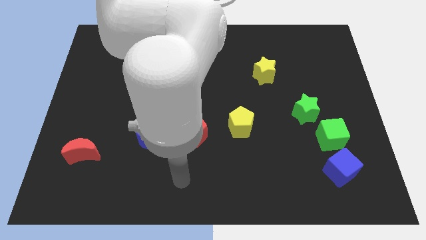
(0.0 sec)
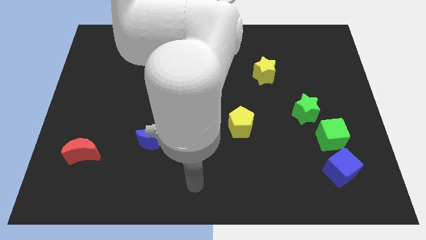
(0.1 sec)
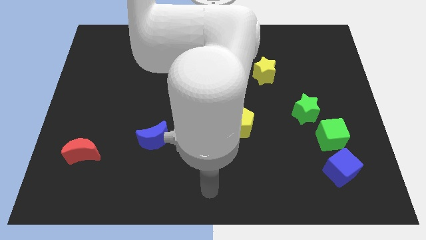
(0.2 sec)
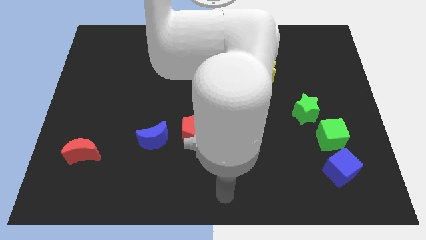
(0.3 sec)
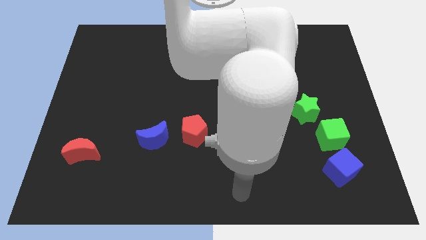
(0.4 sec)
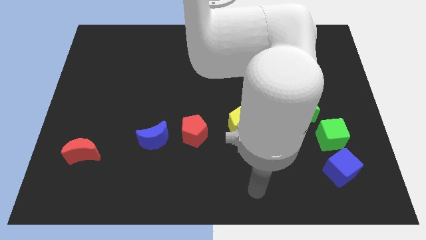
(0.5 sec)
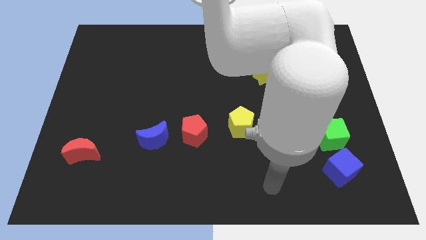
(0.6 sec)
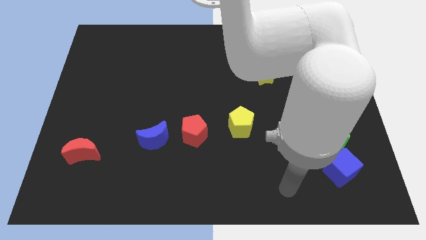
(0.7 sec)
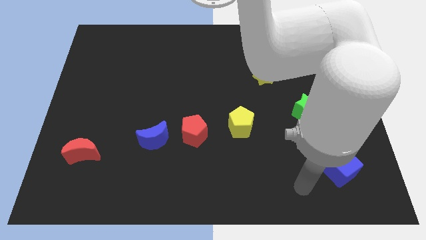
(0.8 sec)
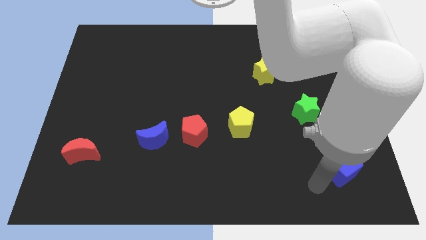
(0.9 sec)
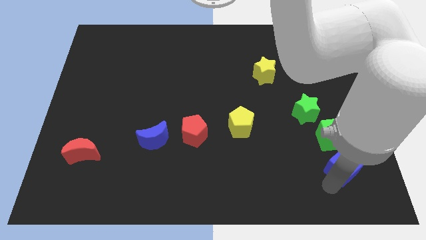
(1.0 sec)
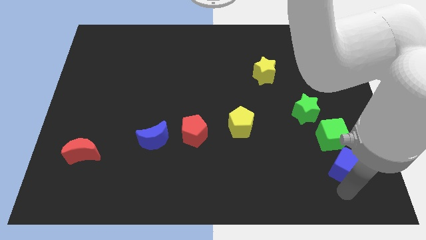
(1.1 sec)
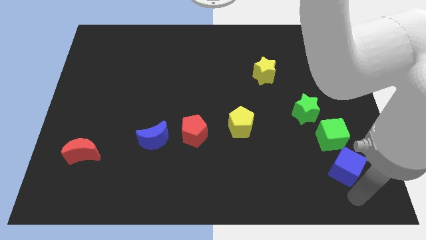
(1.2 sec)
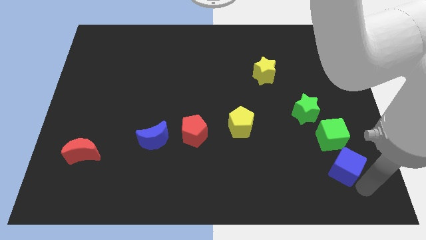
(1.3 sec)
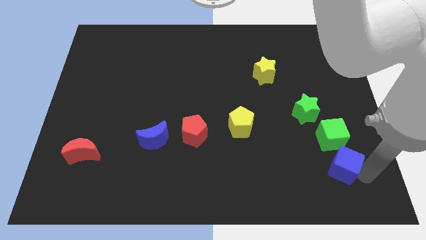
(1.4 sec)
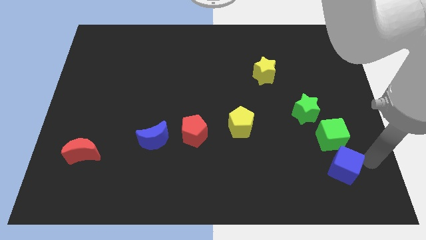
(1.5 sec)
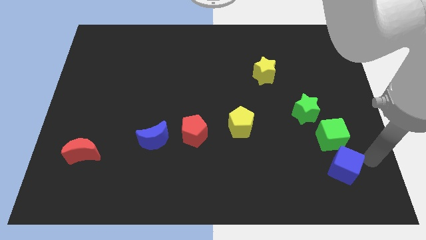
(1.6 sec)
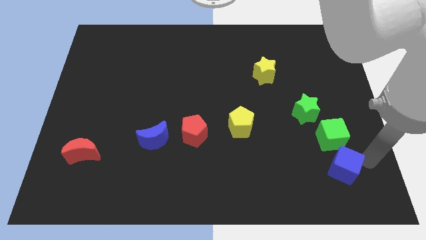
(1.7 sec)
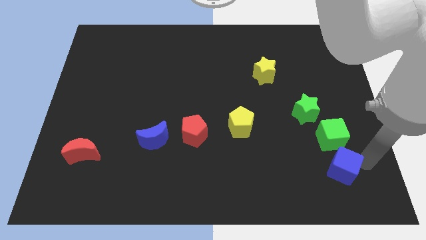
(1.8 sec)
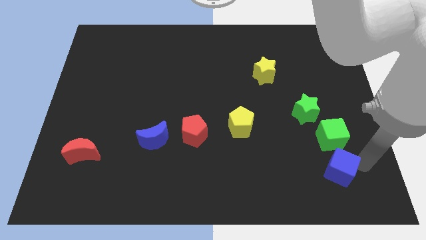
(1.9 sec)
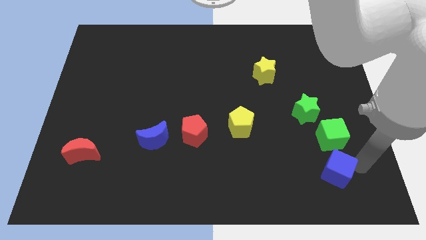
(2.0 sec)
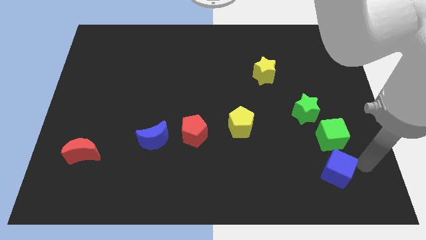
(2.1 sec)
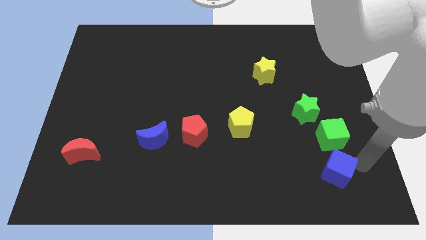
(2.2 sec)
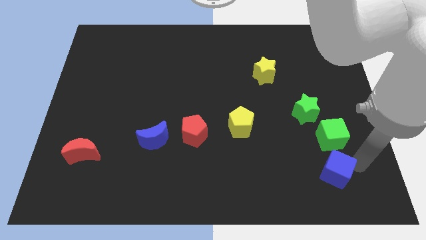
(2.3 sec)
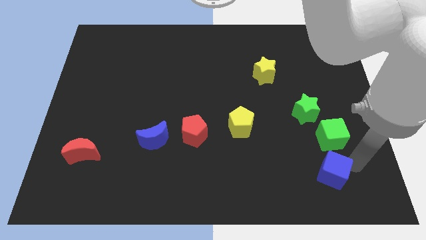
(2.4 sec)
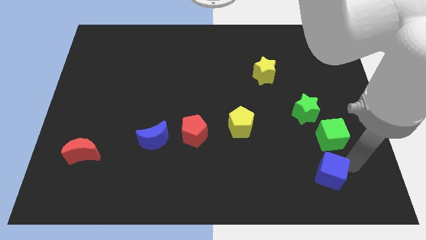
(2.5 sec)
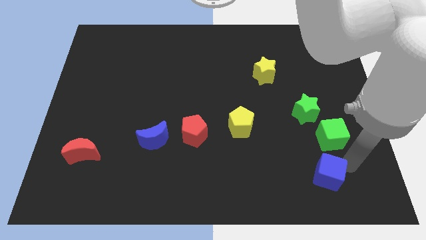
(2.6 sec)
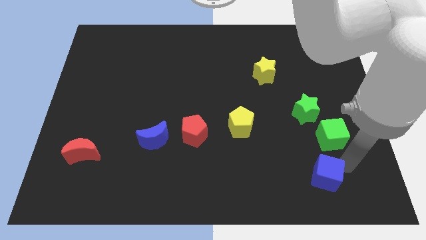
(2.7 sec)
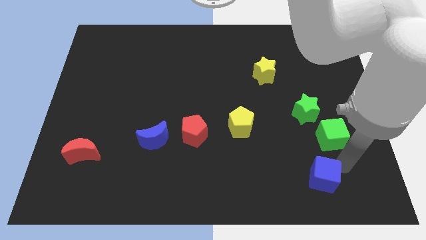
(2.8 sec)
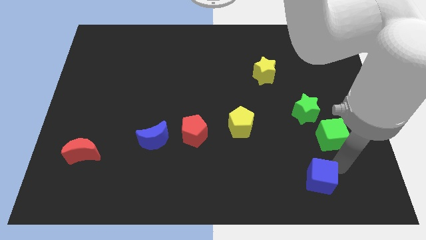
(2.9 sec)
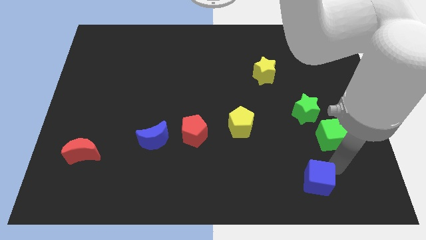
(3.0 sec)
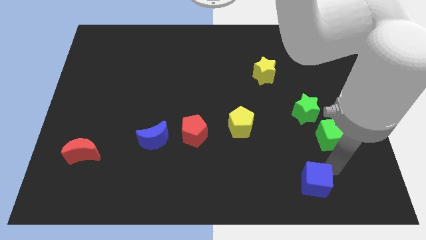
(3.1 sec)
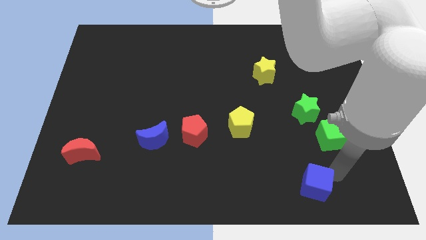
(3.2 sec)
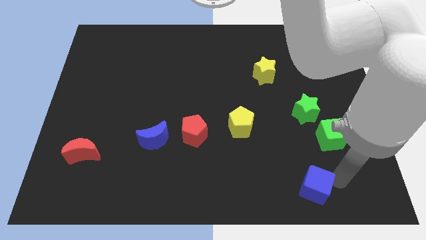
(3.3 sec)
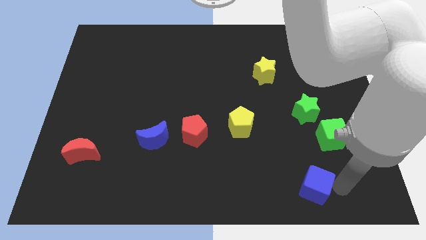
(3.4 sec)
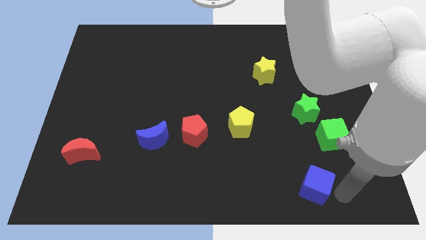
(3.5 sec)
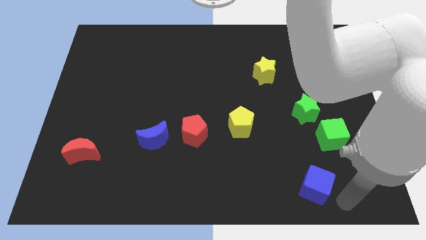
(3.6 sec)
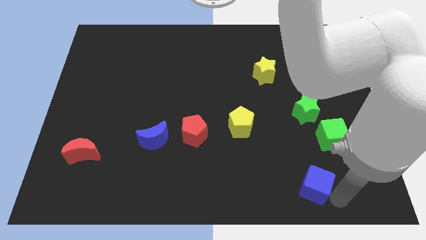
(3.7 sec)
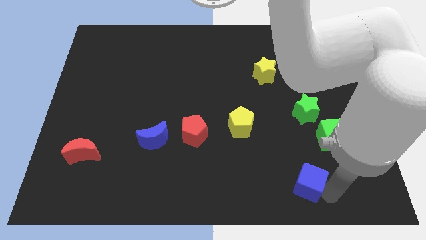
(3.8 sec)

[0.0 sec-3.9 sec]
slightly move the blue cube to the left

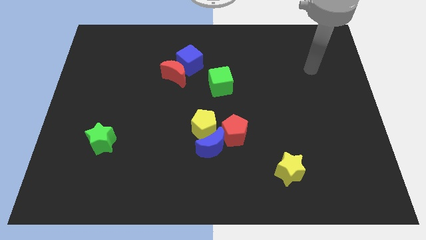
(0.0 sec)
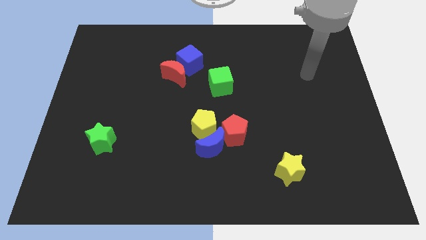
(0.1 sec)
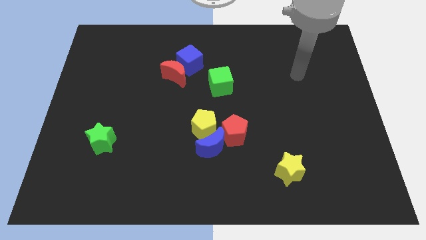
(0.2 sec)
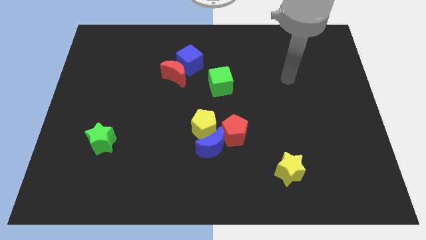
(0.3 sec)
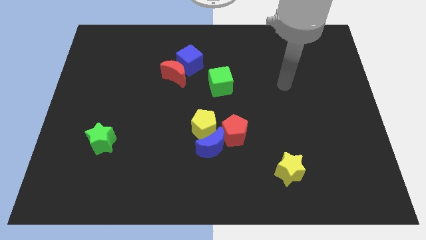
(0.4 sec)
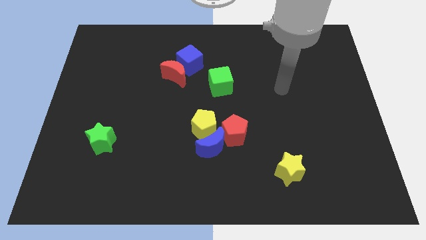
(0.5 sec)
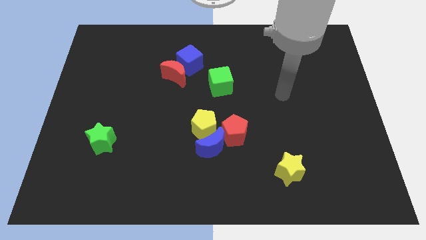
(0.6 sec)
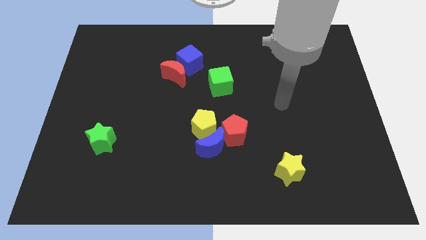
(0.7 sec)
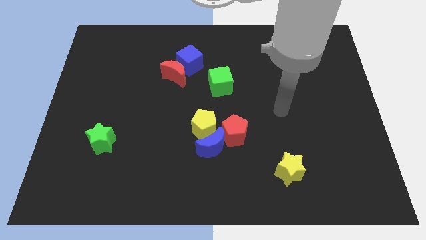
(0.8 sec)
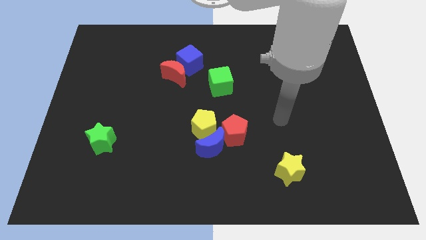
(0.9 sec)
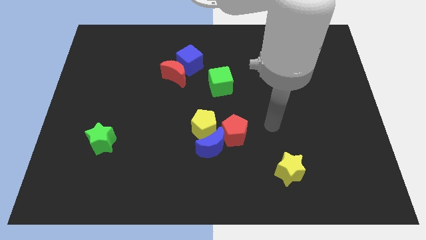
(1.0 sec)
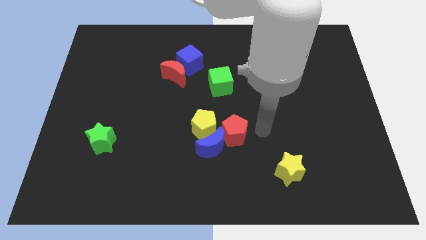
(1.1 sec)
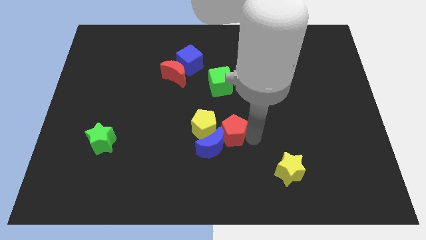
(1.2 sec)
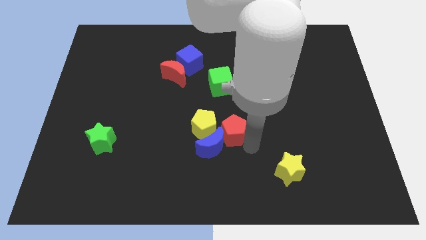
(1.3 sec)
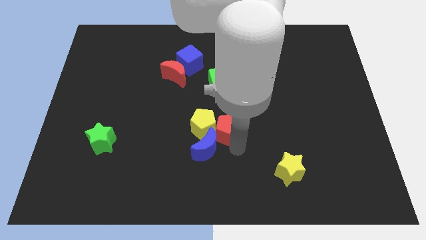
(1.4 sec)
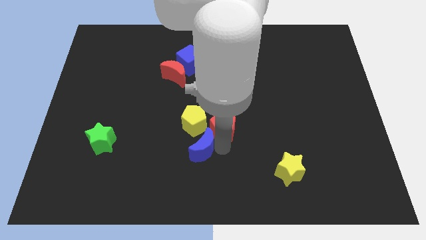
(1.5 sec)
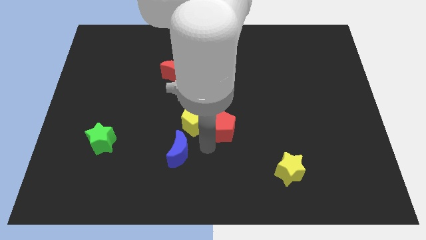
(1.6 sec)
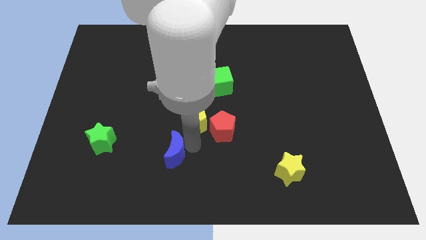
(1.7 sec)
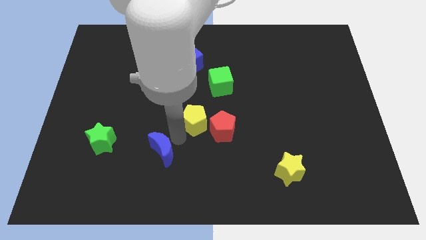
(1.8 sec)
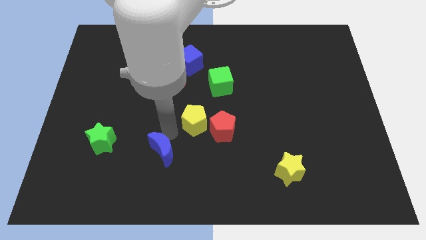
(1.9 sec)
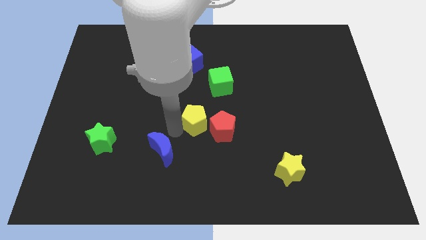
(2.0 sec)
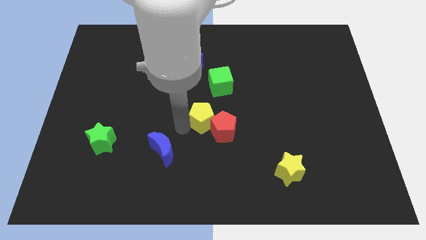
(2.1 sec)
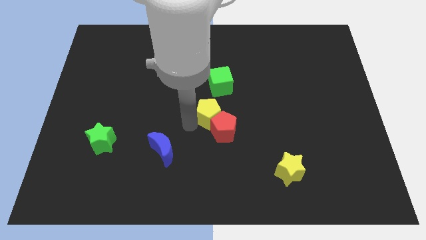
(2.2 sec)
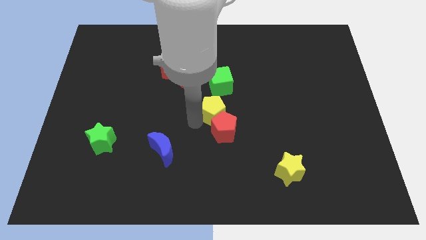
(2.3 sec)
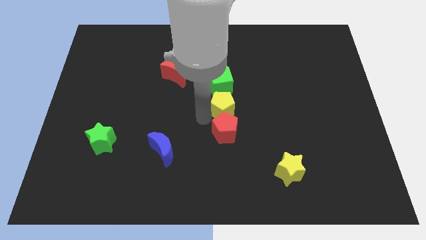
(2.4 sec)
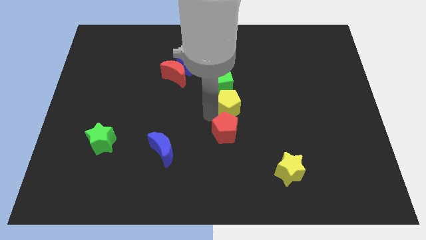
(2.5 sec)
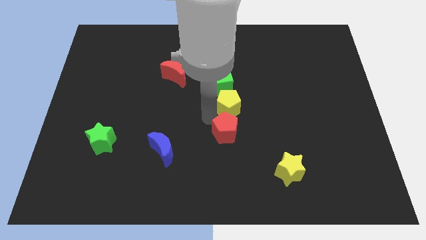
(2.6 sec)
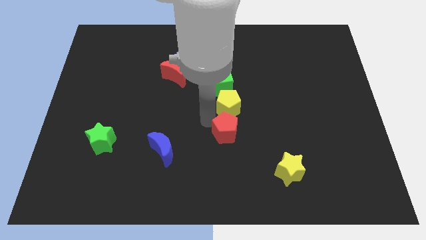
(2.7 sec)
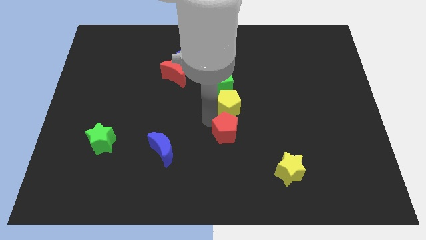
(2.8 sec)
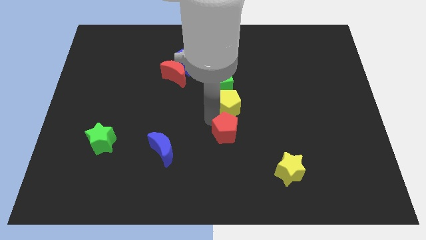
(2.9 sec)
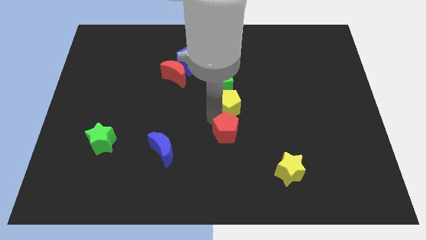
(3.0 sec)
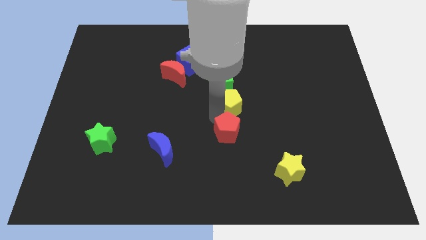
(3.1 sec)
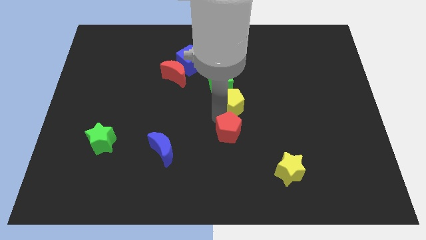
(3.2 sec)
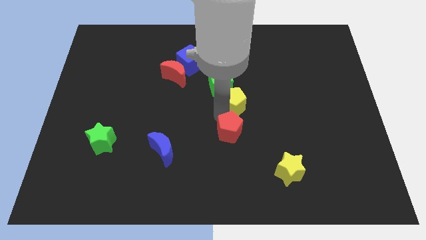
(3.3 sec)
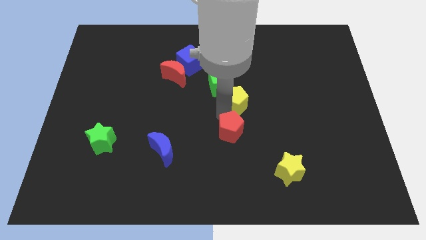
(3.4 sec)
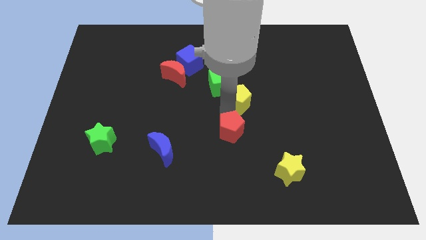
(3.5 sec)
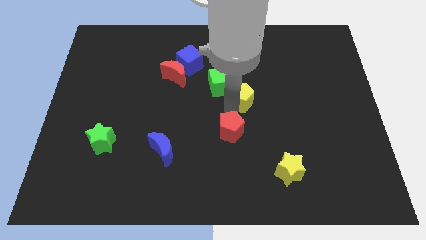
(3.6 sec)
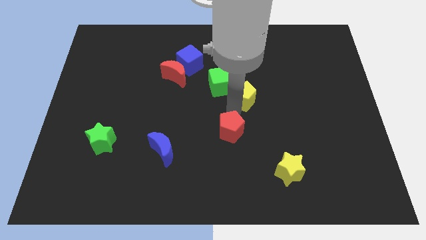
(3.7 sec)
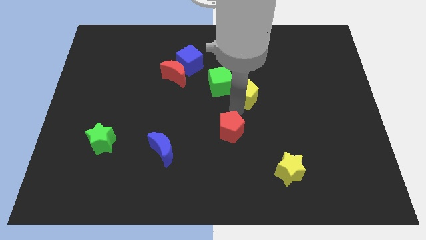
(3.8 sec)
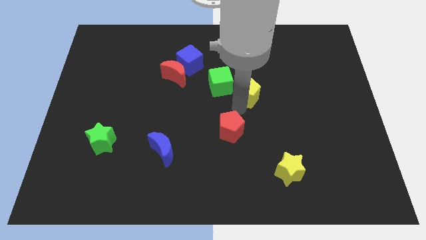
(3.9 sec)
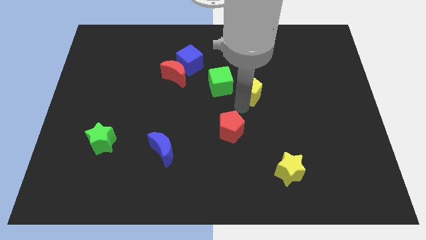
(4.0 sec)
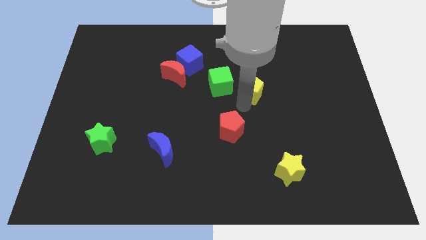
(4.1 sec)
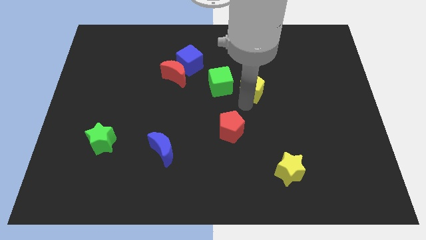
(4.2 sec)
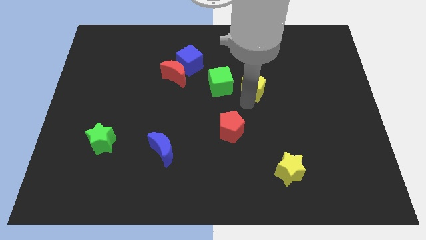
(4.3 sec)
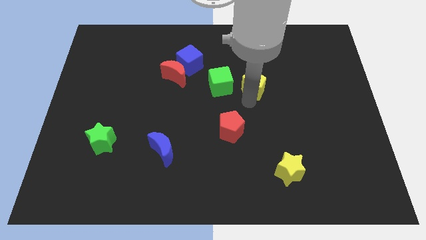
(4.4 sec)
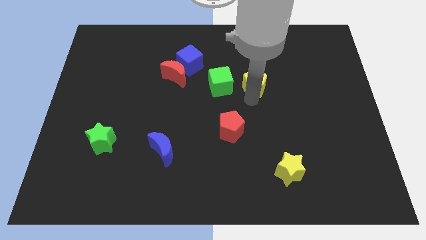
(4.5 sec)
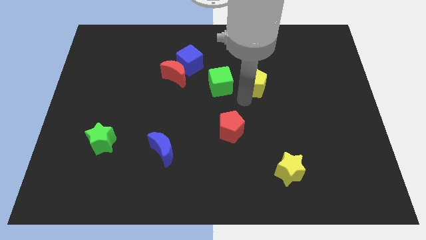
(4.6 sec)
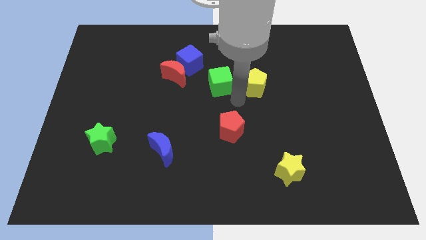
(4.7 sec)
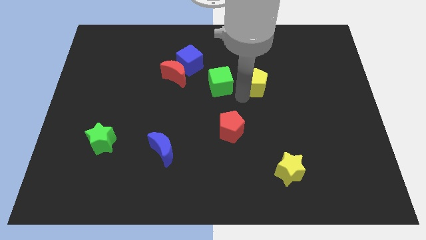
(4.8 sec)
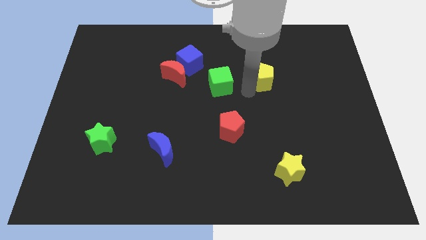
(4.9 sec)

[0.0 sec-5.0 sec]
slide the yellow pentagon up and right diagonally
